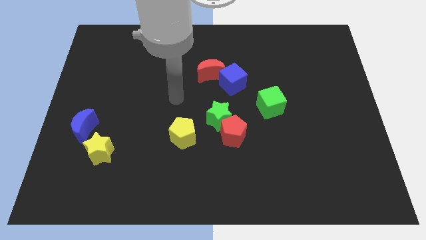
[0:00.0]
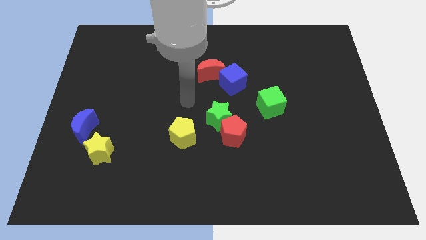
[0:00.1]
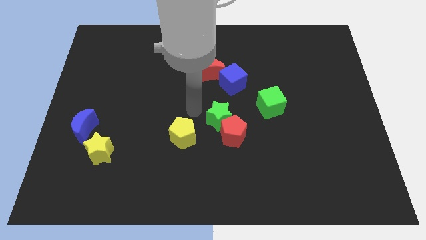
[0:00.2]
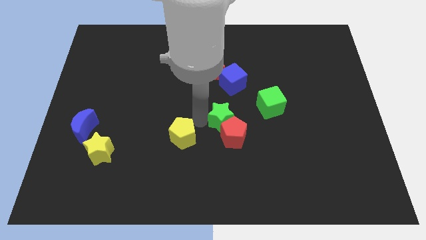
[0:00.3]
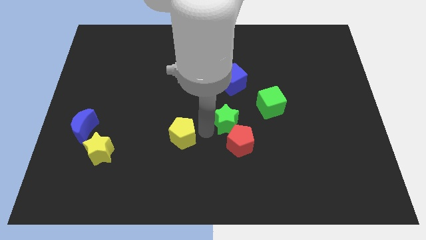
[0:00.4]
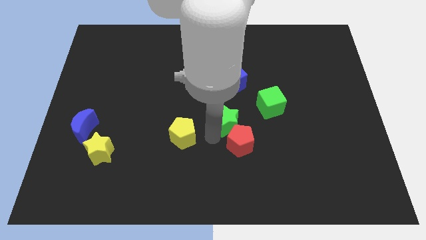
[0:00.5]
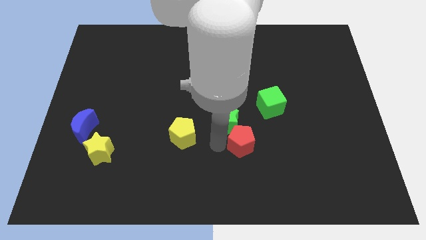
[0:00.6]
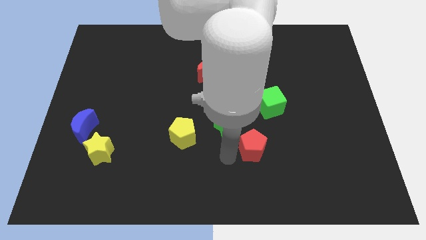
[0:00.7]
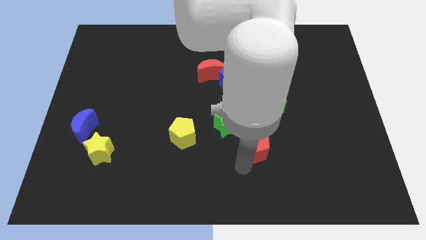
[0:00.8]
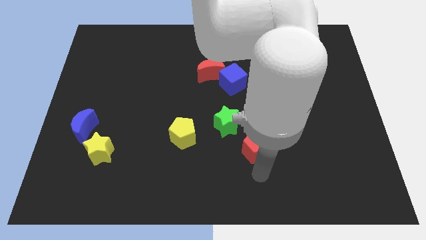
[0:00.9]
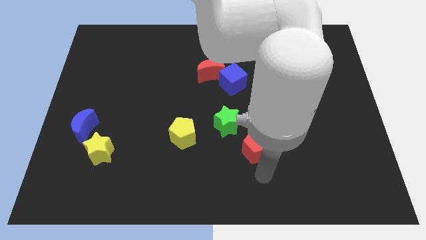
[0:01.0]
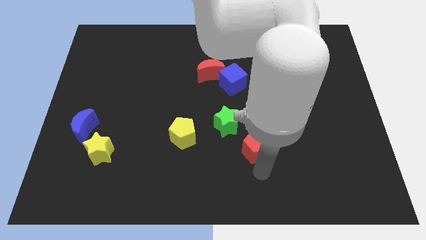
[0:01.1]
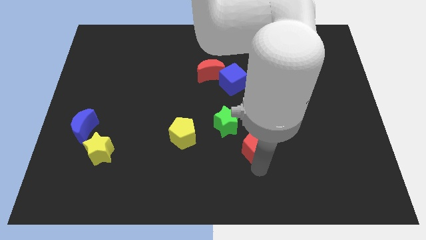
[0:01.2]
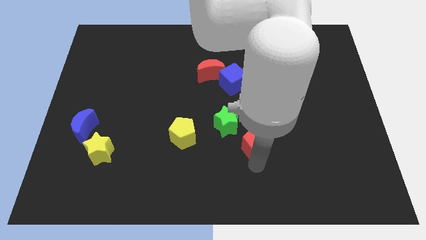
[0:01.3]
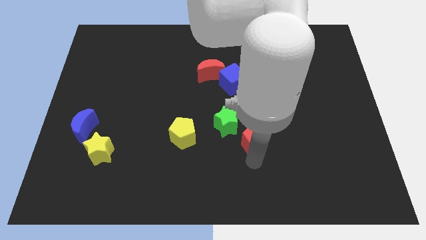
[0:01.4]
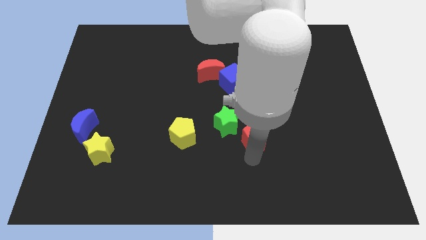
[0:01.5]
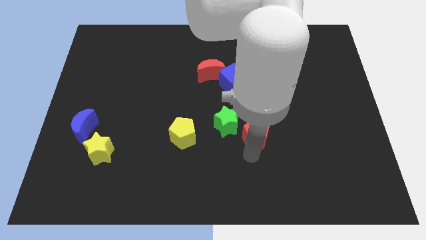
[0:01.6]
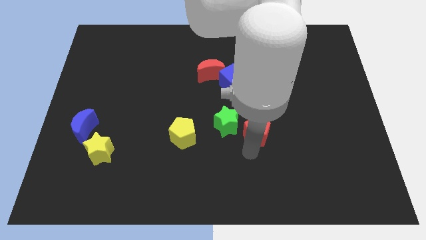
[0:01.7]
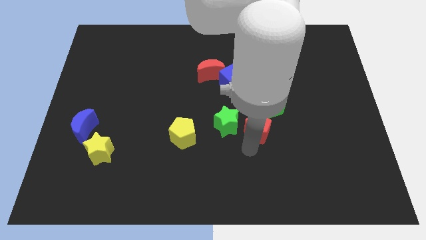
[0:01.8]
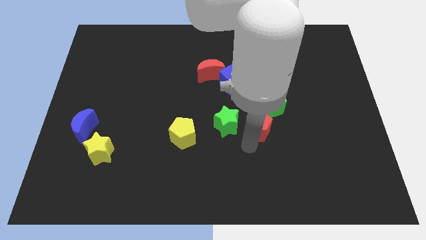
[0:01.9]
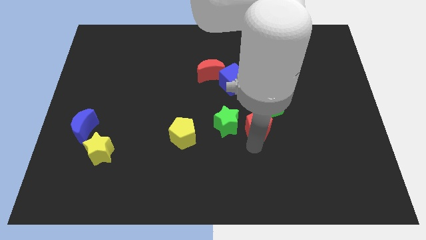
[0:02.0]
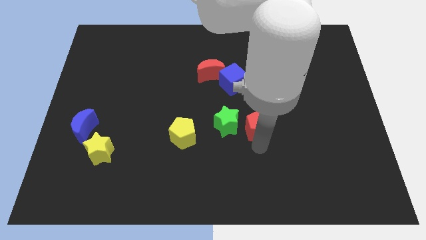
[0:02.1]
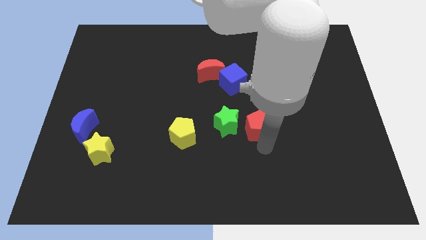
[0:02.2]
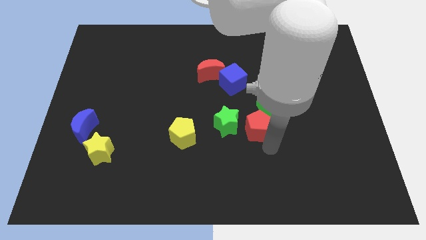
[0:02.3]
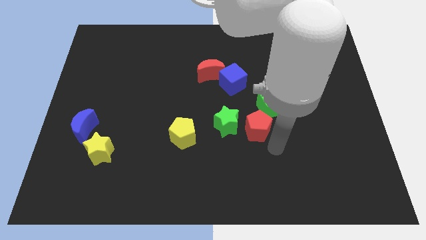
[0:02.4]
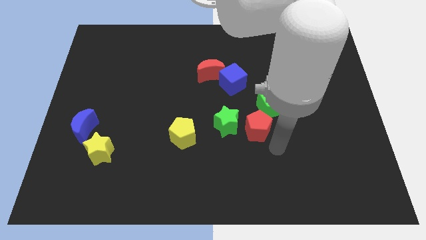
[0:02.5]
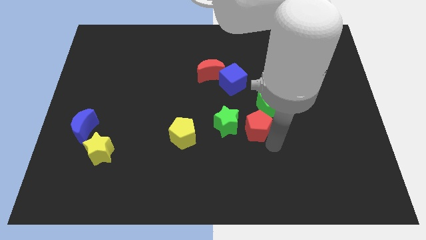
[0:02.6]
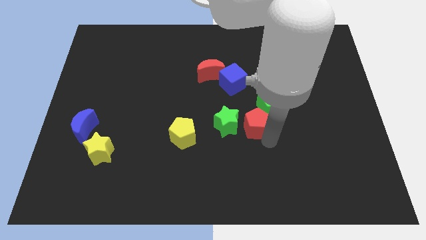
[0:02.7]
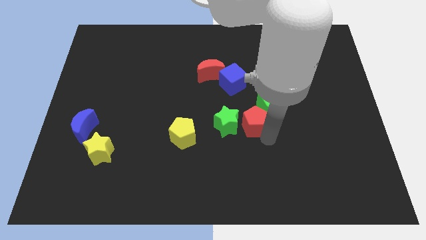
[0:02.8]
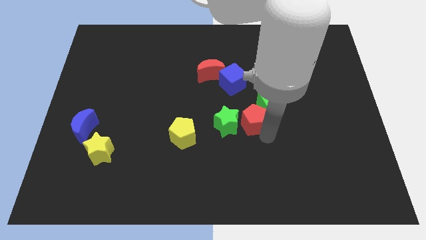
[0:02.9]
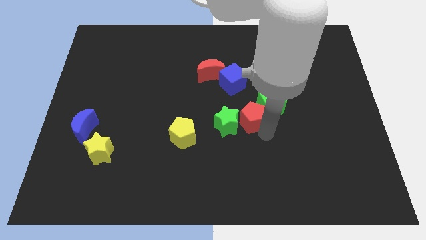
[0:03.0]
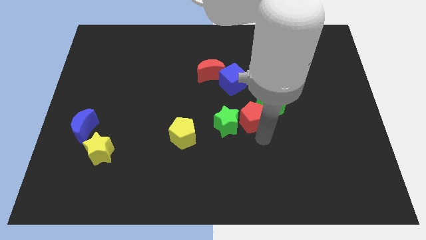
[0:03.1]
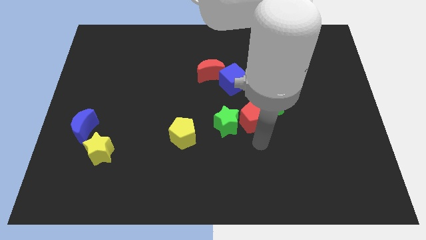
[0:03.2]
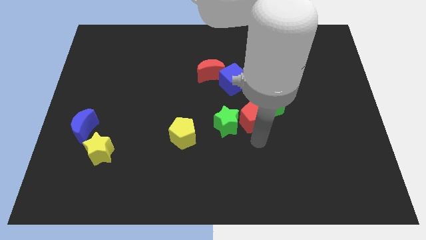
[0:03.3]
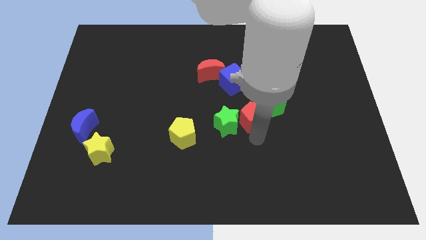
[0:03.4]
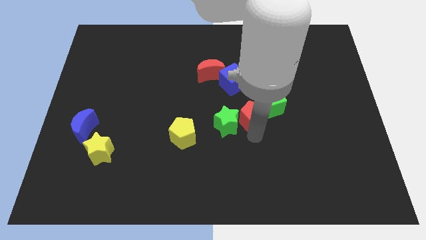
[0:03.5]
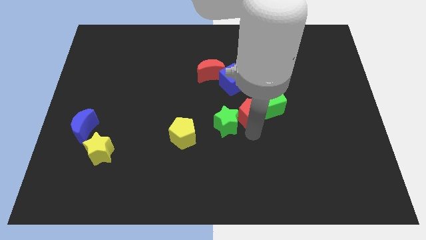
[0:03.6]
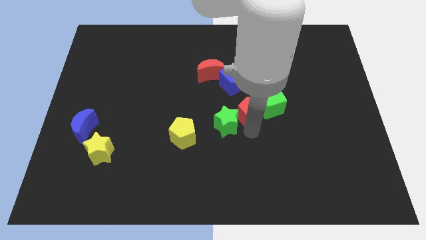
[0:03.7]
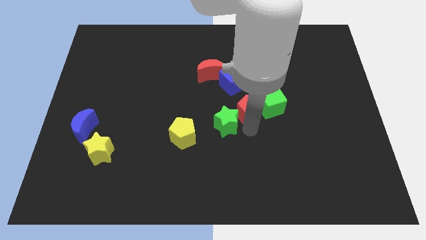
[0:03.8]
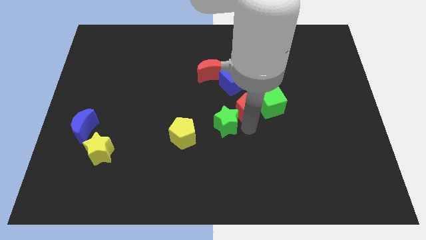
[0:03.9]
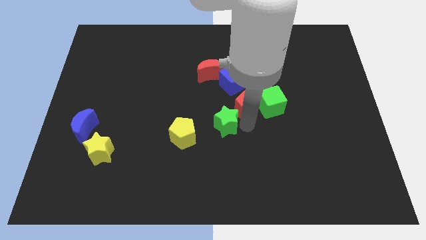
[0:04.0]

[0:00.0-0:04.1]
slide the red pentagon up a little bit

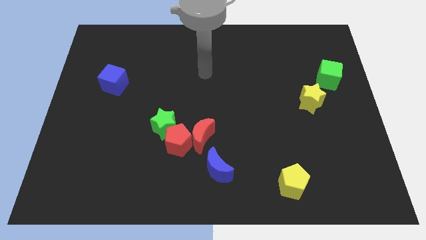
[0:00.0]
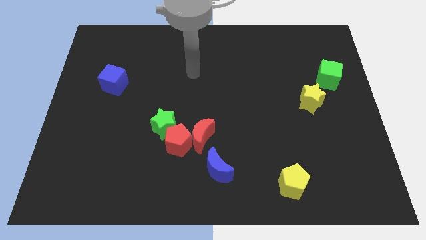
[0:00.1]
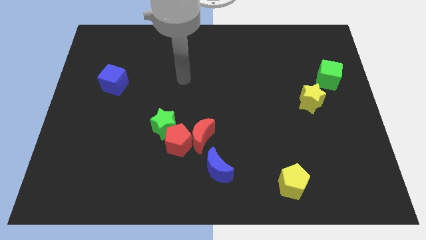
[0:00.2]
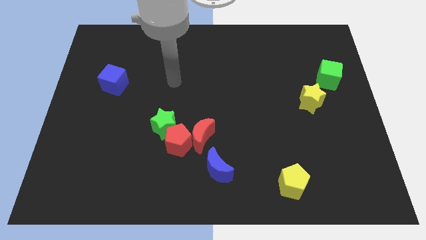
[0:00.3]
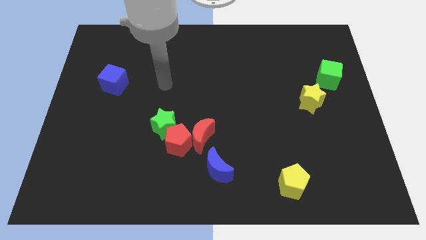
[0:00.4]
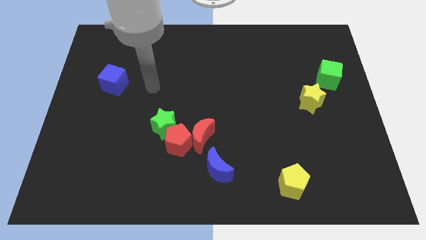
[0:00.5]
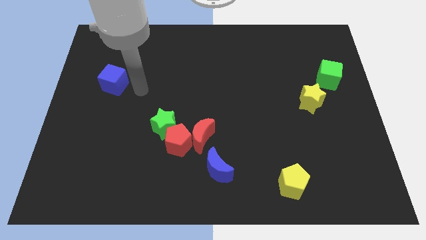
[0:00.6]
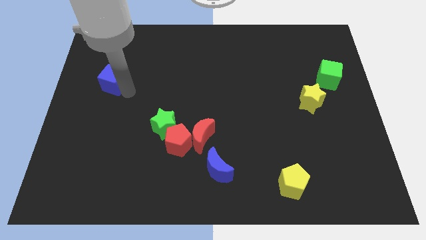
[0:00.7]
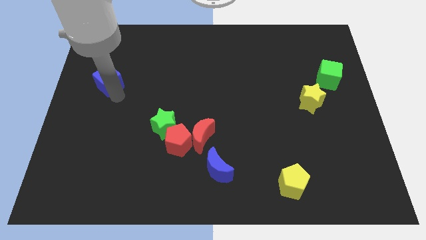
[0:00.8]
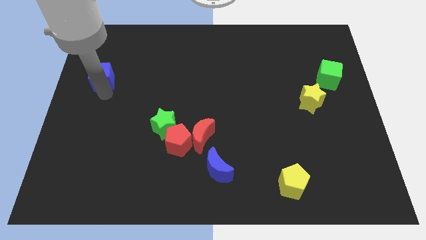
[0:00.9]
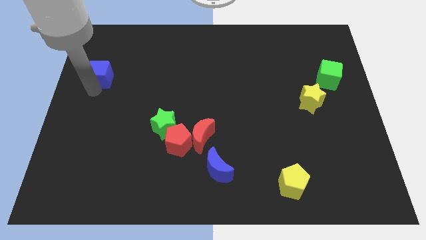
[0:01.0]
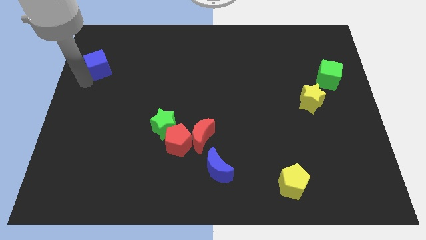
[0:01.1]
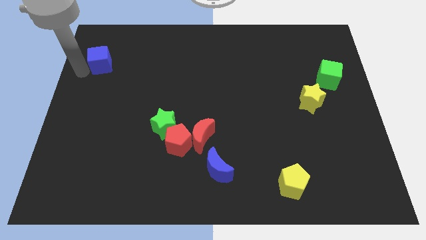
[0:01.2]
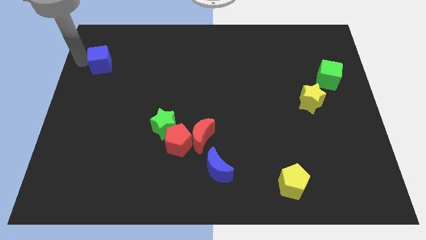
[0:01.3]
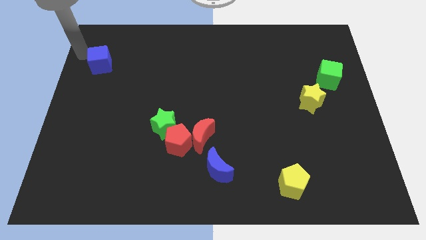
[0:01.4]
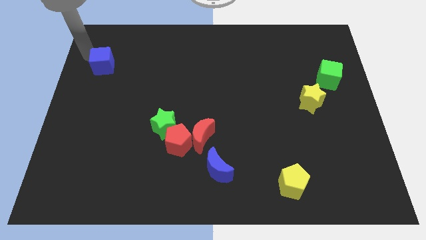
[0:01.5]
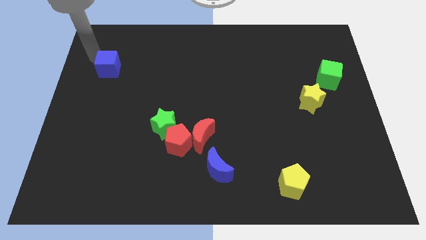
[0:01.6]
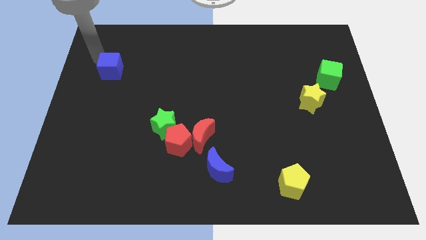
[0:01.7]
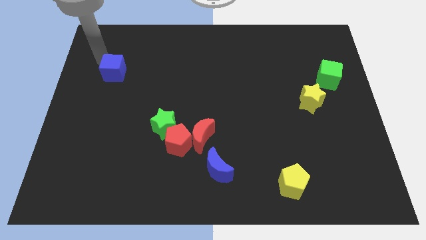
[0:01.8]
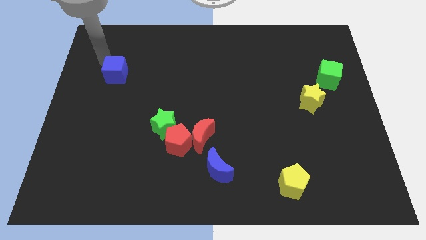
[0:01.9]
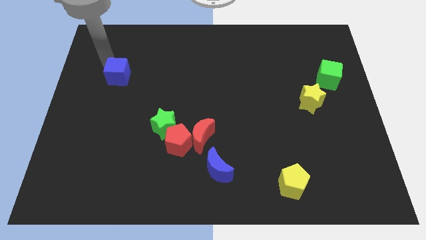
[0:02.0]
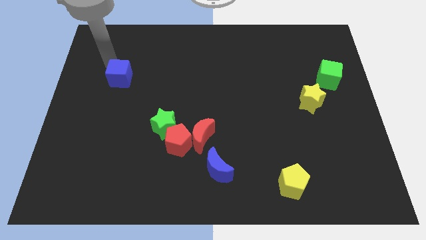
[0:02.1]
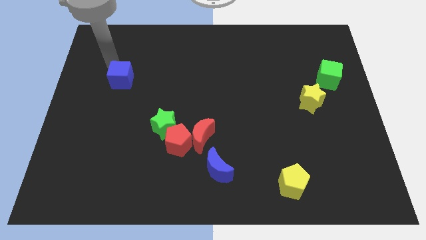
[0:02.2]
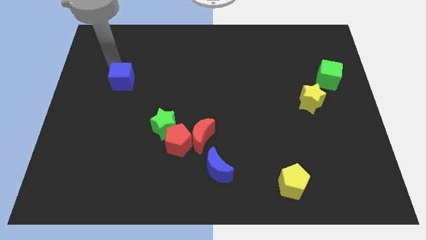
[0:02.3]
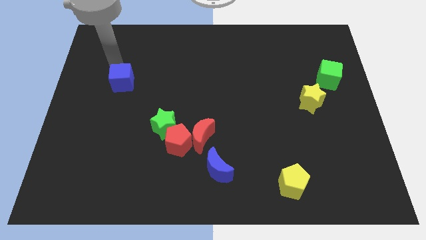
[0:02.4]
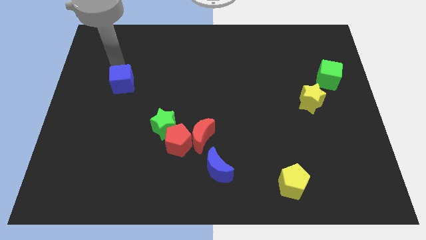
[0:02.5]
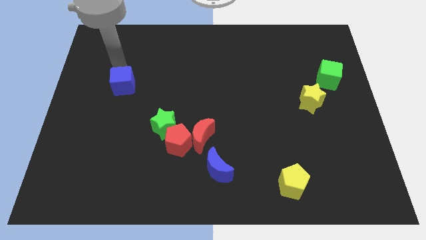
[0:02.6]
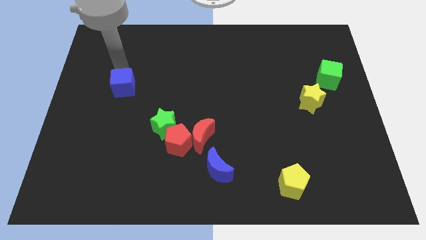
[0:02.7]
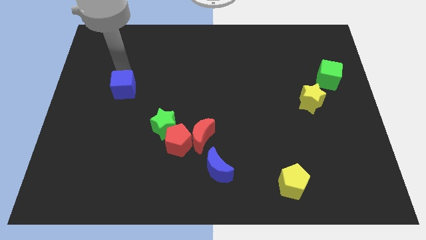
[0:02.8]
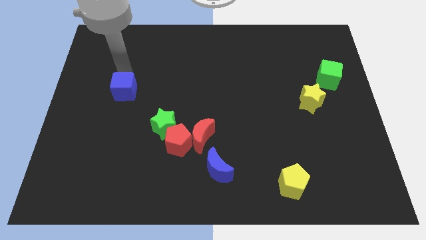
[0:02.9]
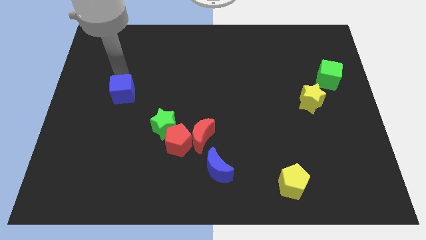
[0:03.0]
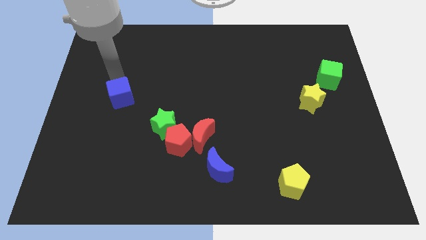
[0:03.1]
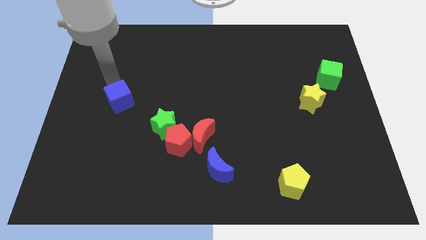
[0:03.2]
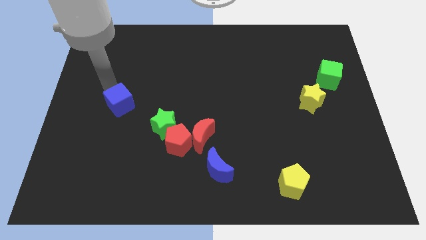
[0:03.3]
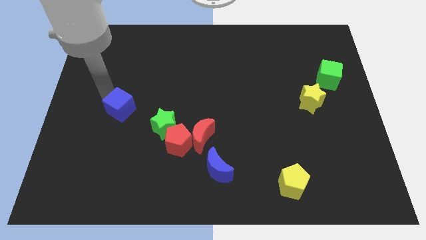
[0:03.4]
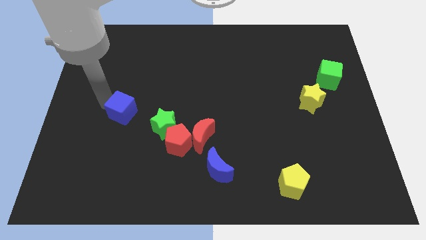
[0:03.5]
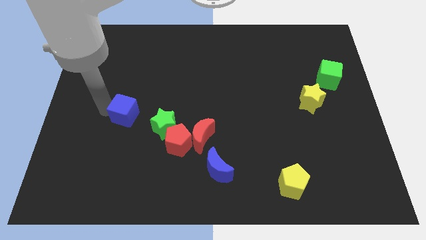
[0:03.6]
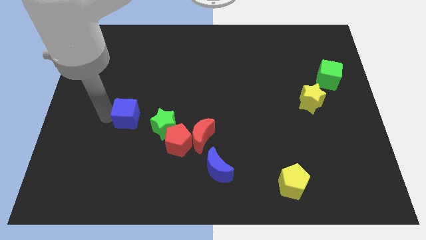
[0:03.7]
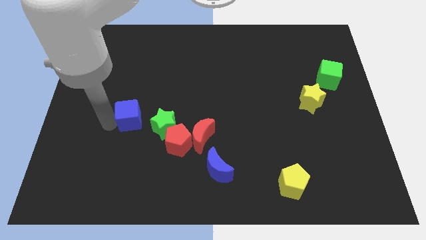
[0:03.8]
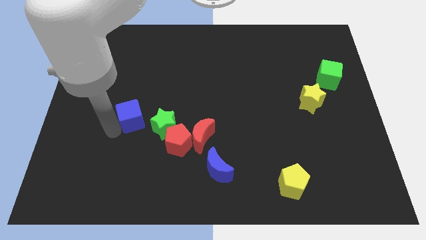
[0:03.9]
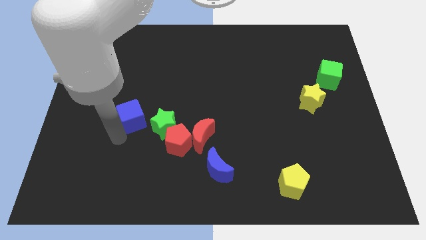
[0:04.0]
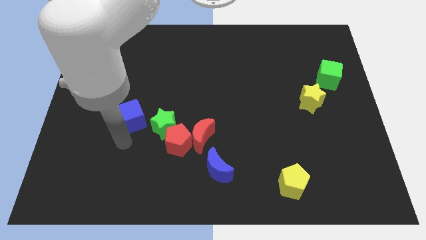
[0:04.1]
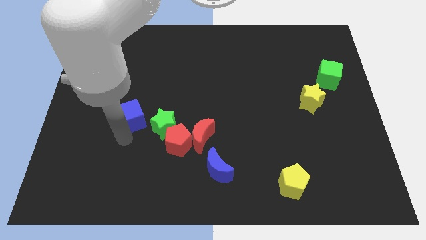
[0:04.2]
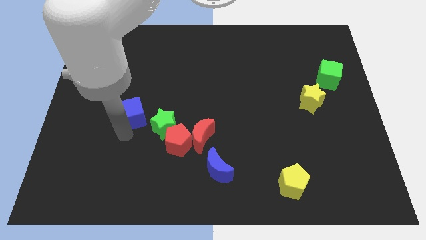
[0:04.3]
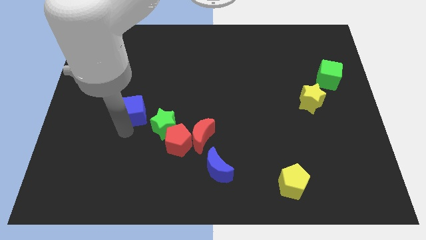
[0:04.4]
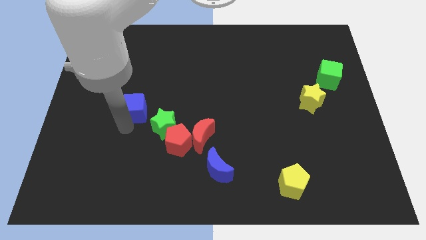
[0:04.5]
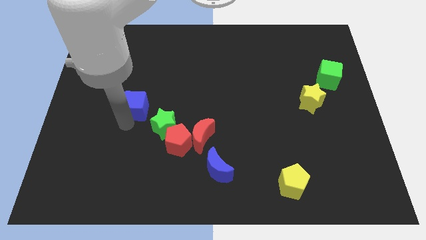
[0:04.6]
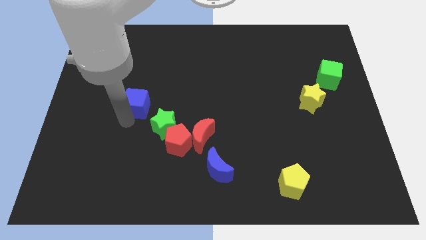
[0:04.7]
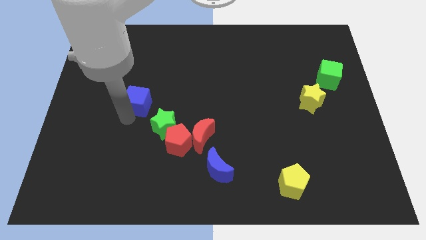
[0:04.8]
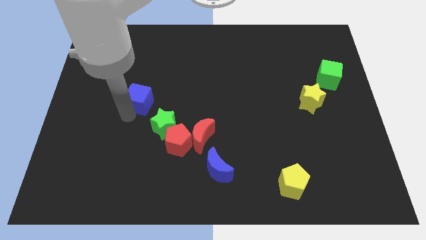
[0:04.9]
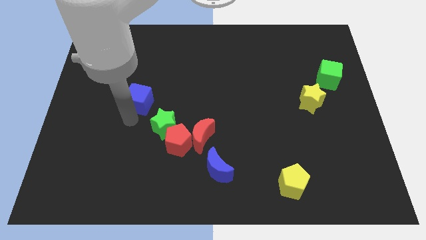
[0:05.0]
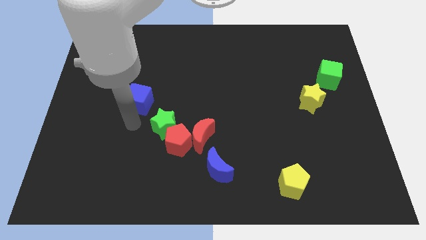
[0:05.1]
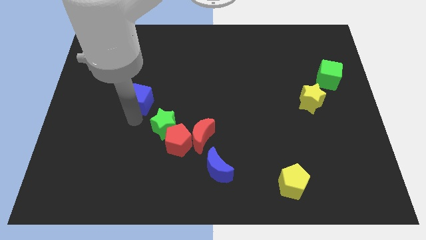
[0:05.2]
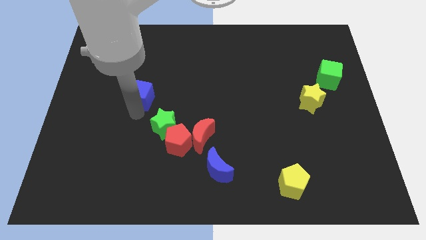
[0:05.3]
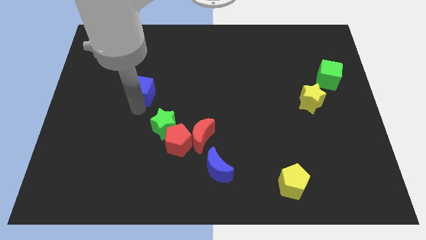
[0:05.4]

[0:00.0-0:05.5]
slightly push the blue cube right
